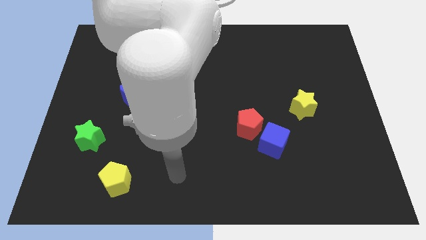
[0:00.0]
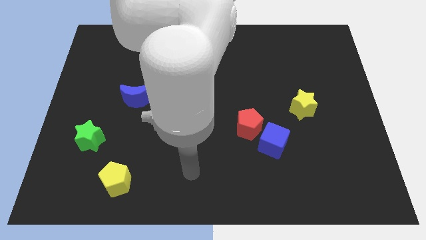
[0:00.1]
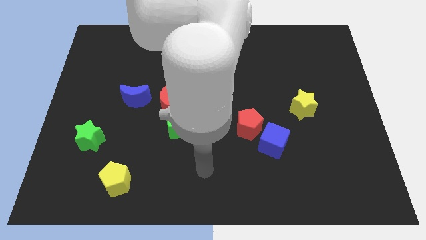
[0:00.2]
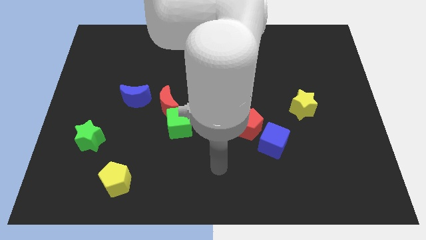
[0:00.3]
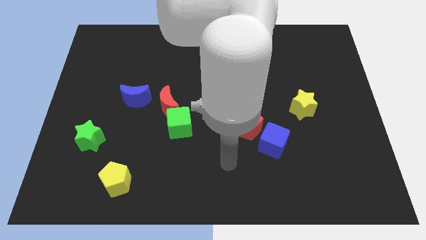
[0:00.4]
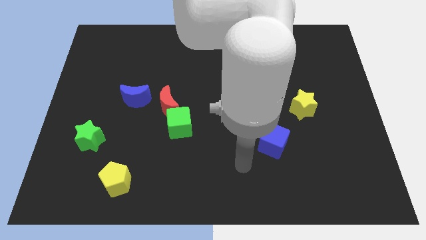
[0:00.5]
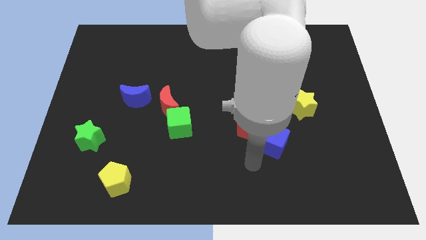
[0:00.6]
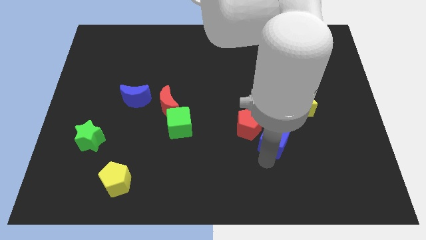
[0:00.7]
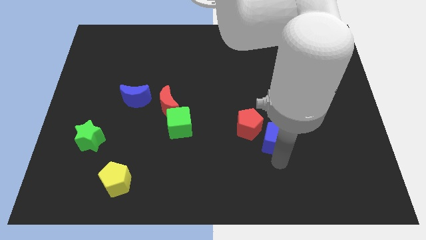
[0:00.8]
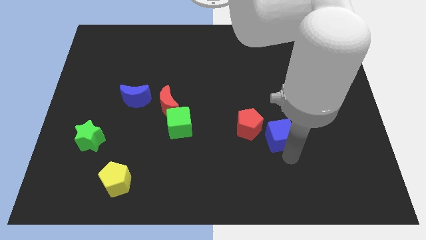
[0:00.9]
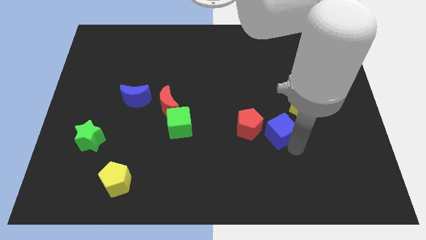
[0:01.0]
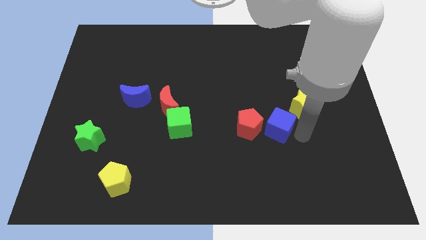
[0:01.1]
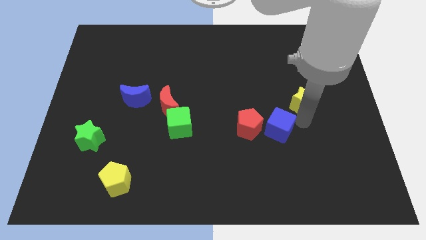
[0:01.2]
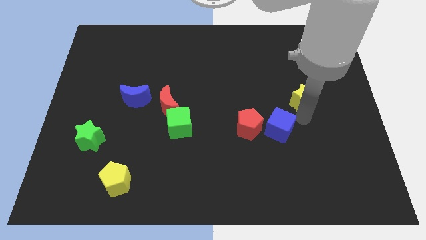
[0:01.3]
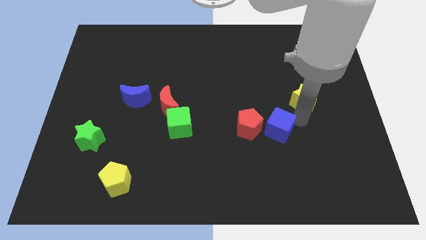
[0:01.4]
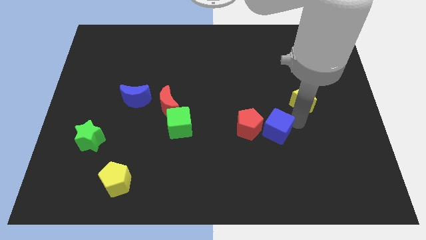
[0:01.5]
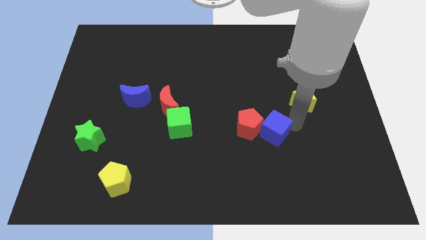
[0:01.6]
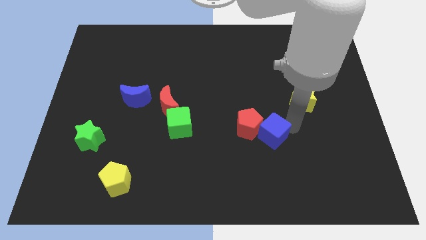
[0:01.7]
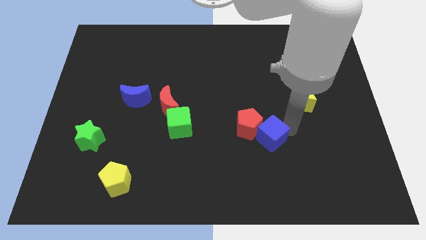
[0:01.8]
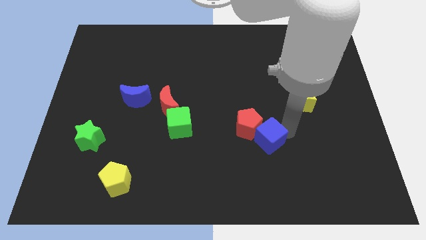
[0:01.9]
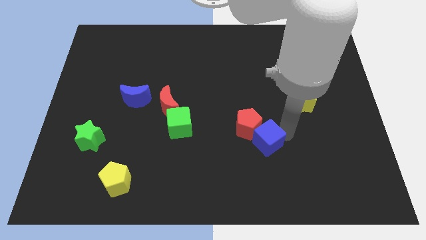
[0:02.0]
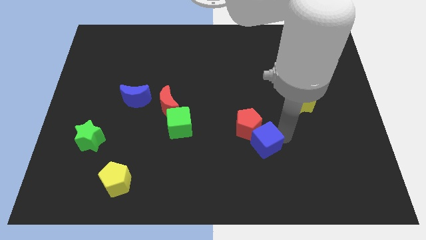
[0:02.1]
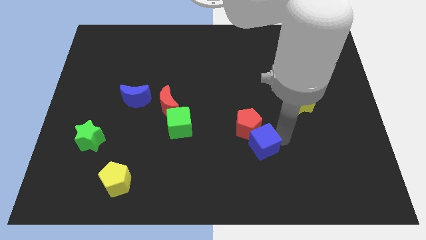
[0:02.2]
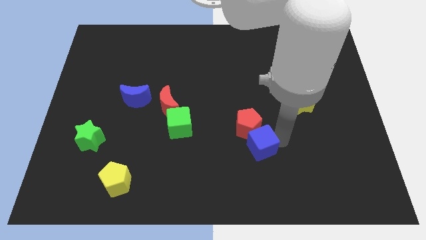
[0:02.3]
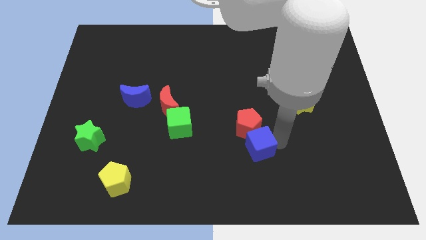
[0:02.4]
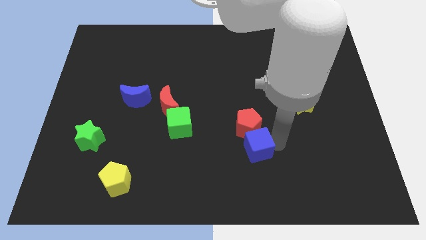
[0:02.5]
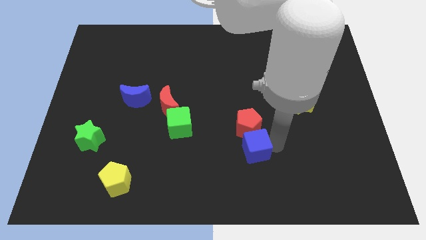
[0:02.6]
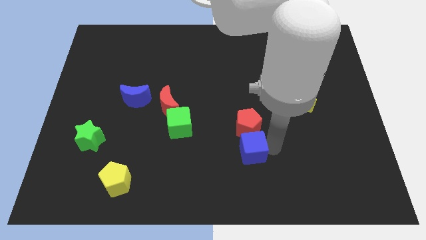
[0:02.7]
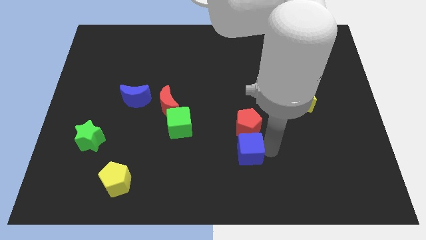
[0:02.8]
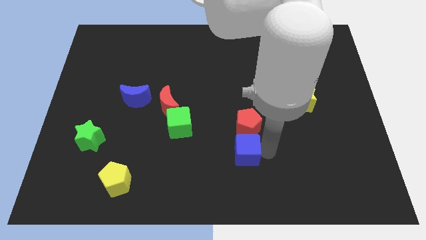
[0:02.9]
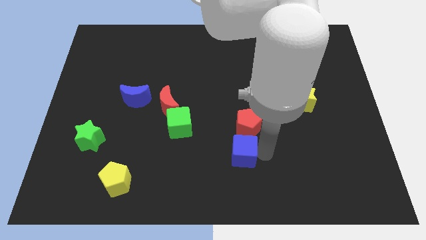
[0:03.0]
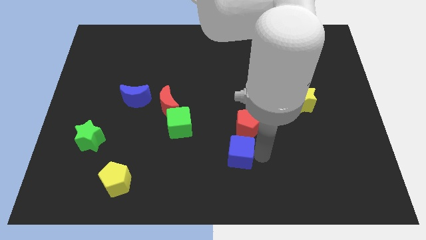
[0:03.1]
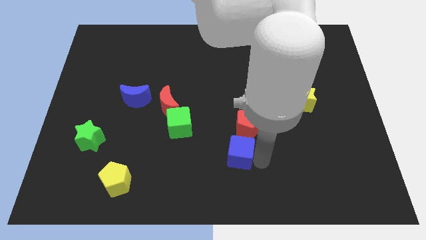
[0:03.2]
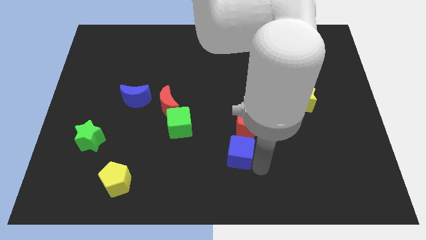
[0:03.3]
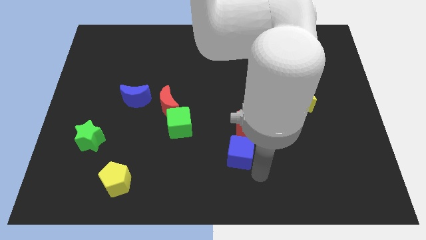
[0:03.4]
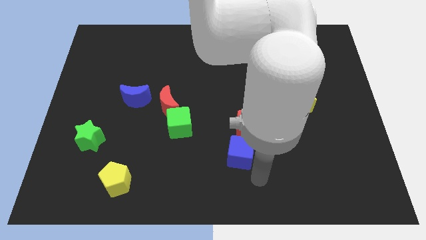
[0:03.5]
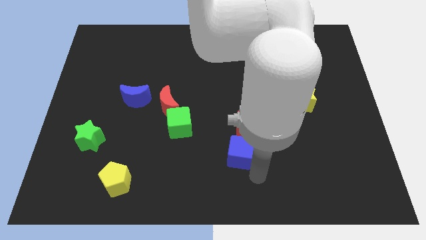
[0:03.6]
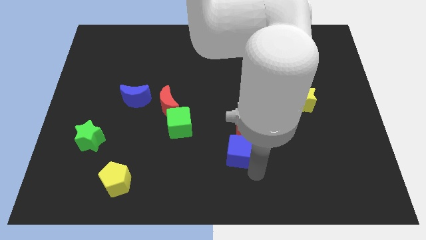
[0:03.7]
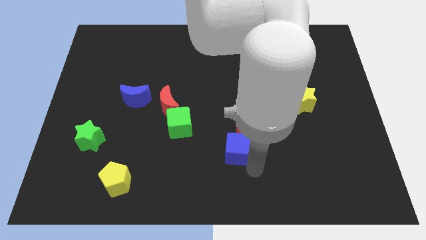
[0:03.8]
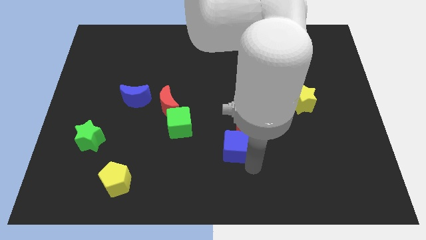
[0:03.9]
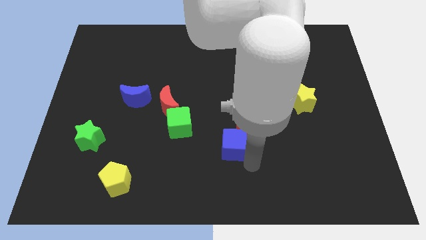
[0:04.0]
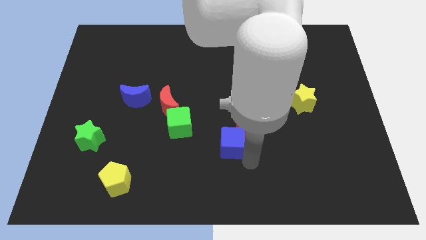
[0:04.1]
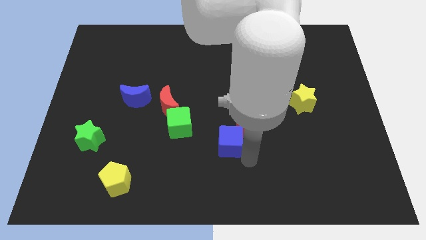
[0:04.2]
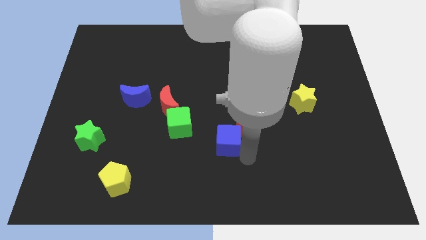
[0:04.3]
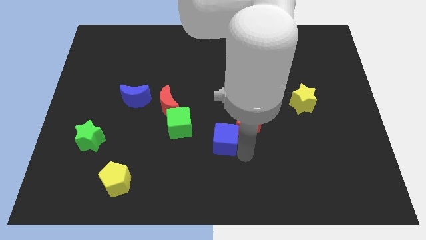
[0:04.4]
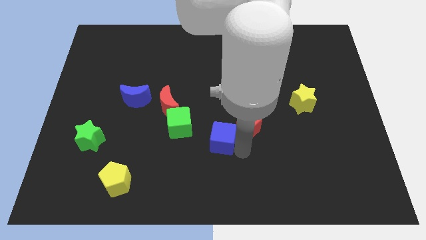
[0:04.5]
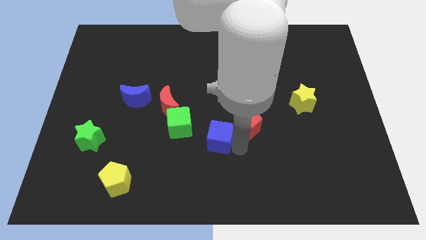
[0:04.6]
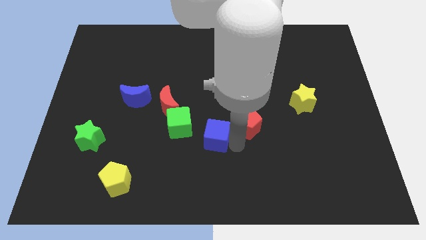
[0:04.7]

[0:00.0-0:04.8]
slide the blue cube diagonally up and to the left a bit

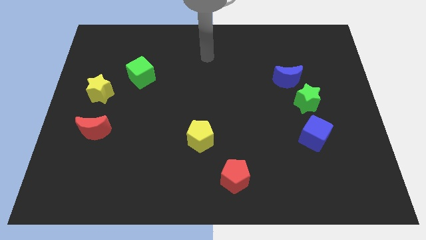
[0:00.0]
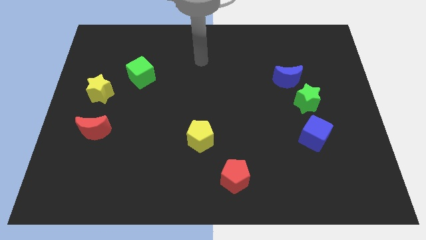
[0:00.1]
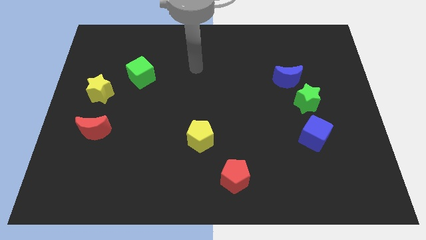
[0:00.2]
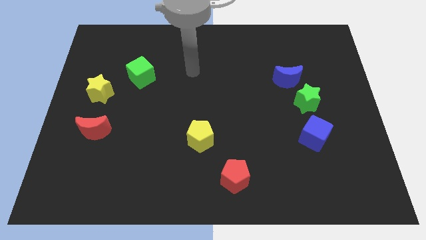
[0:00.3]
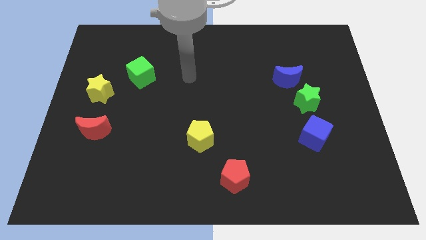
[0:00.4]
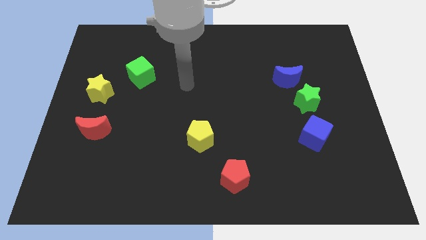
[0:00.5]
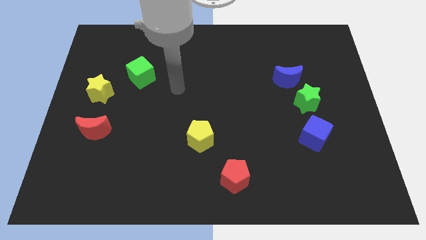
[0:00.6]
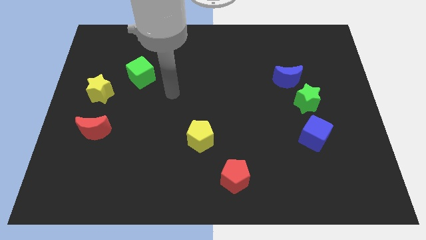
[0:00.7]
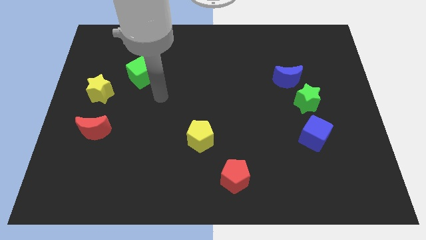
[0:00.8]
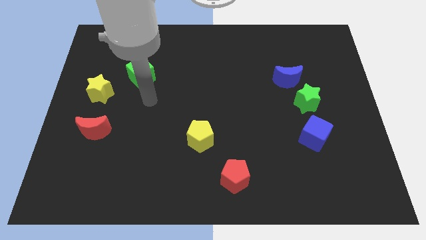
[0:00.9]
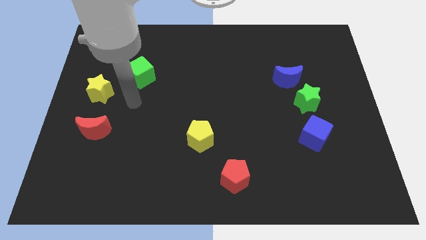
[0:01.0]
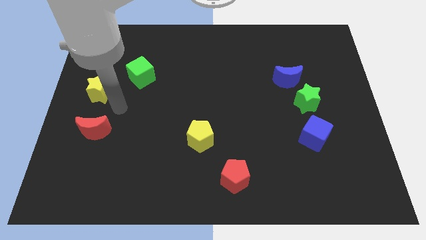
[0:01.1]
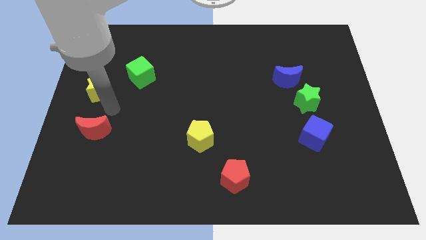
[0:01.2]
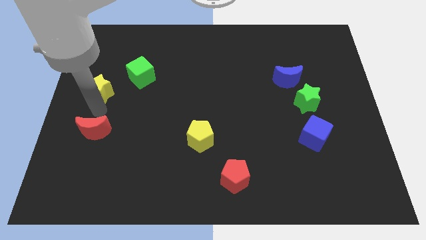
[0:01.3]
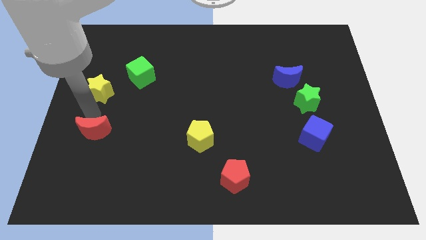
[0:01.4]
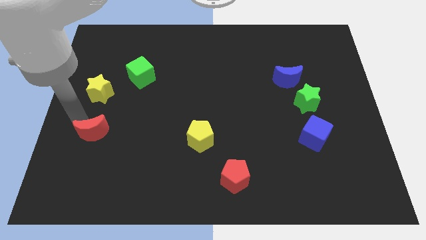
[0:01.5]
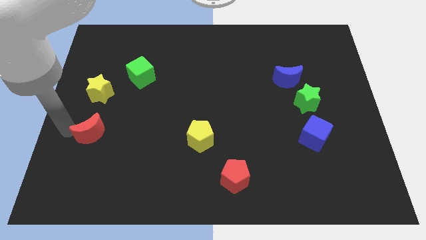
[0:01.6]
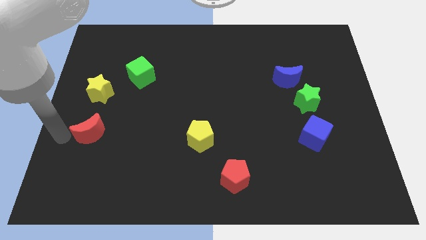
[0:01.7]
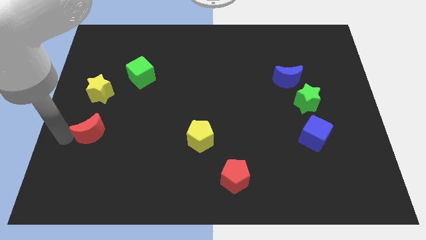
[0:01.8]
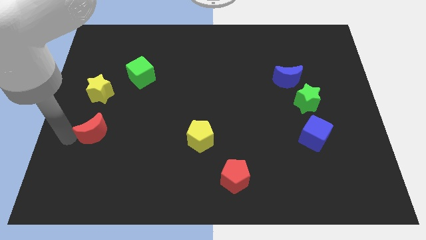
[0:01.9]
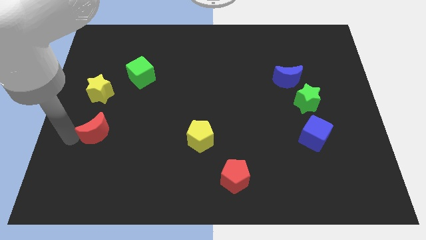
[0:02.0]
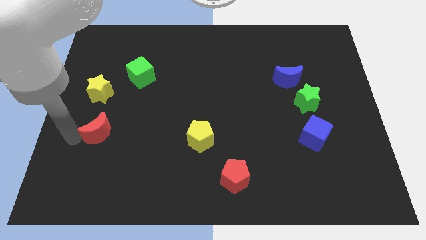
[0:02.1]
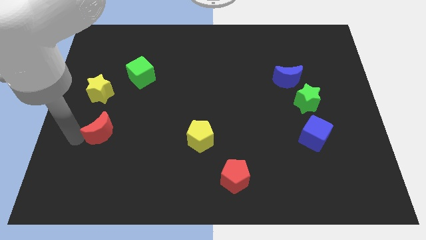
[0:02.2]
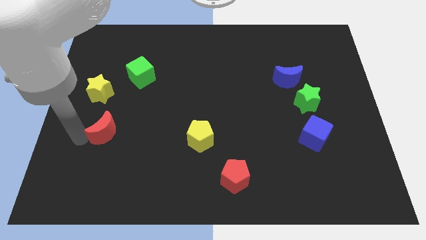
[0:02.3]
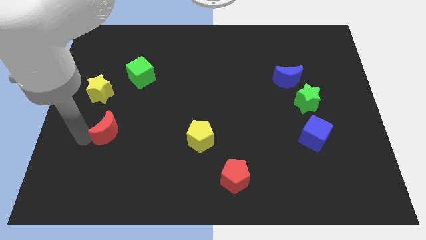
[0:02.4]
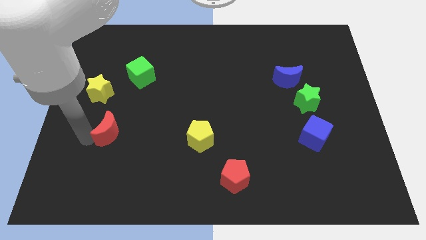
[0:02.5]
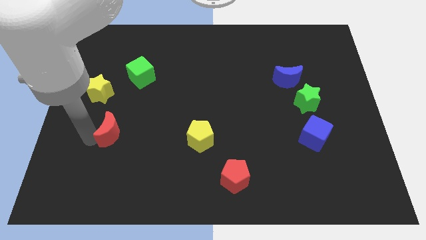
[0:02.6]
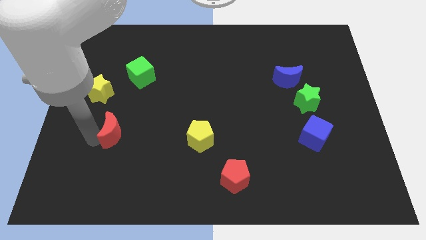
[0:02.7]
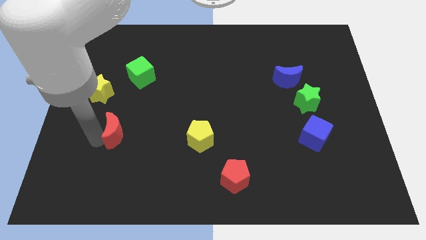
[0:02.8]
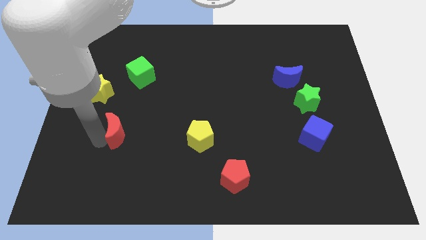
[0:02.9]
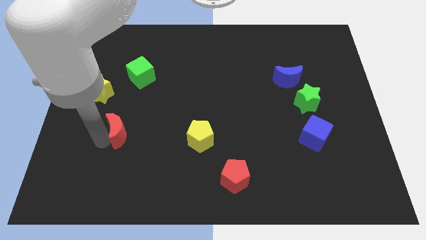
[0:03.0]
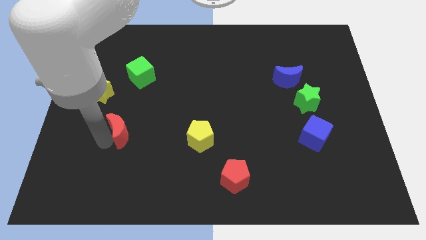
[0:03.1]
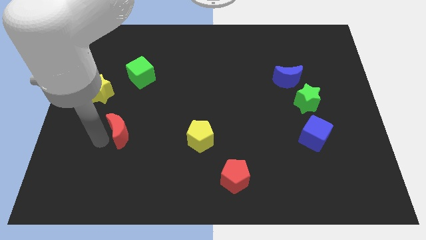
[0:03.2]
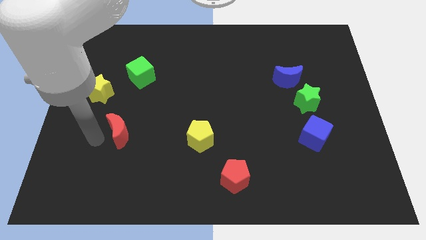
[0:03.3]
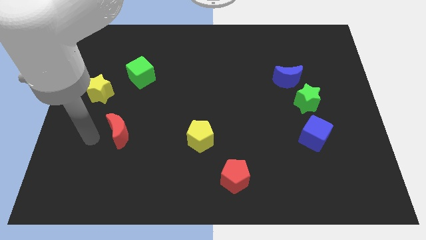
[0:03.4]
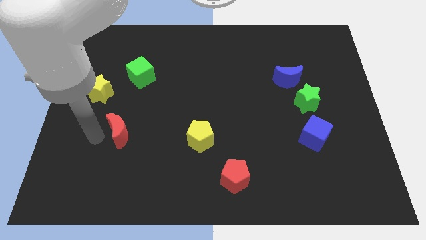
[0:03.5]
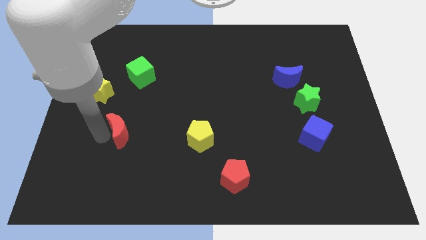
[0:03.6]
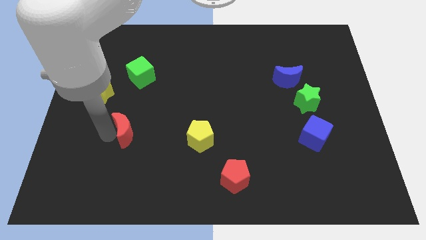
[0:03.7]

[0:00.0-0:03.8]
move the red moon right a bit
